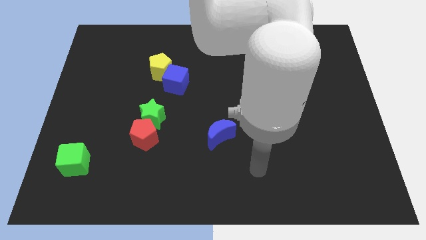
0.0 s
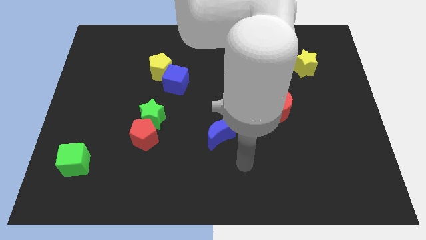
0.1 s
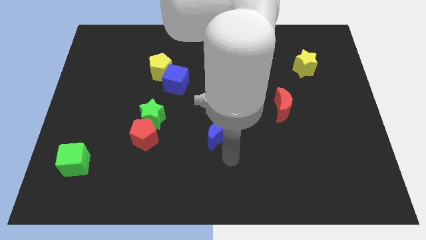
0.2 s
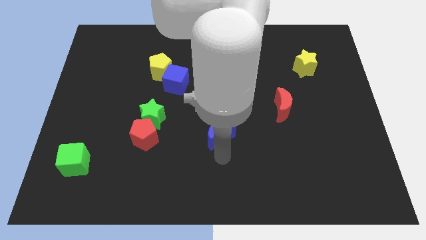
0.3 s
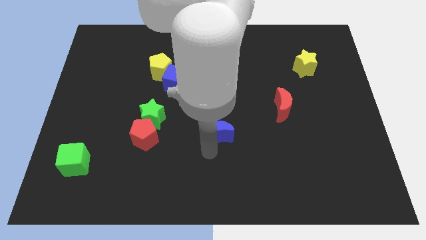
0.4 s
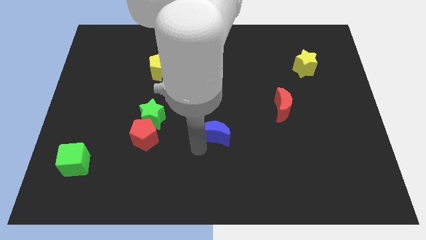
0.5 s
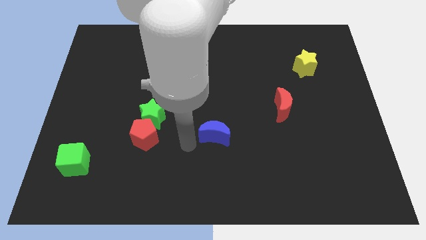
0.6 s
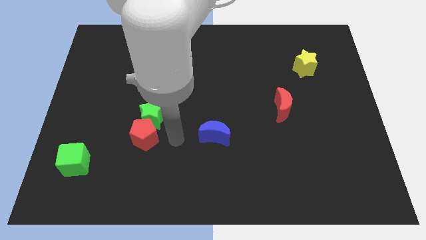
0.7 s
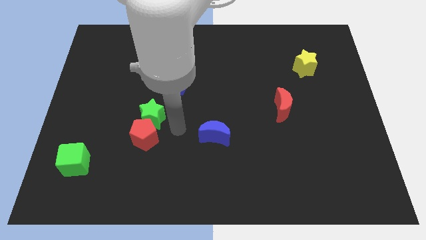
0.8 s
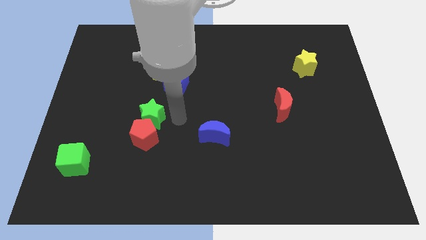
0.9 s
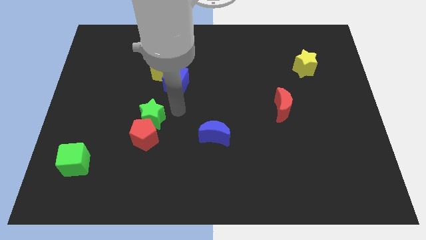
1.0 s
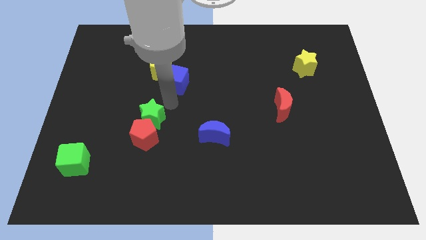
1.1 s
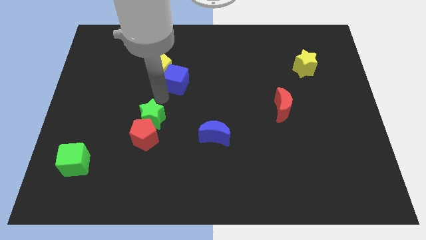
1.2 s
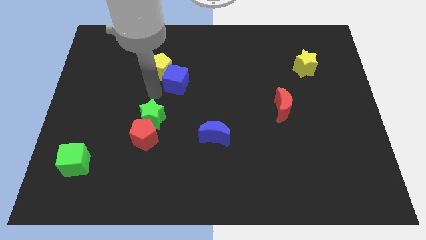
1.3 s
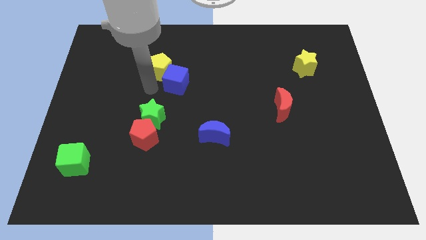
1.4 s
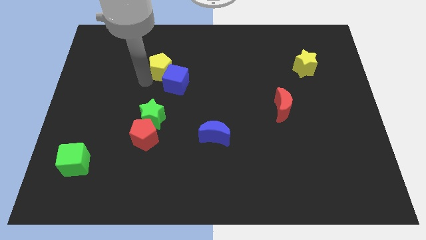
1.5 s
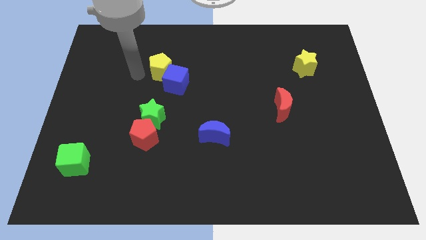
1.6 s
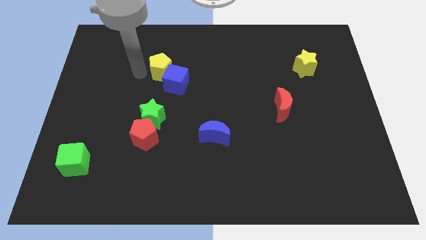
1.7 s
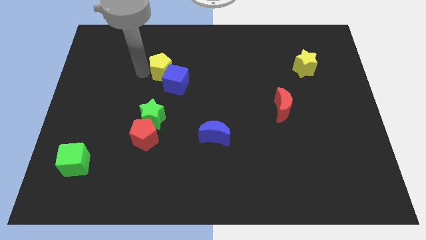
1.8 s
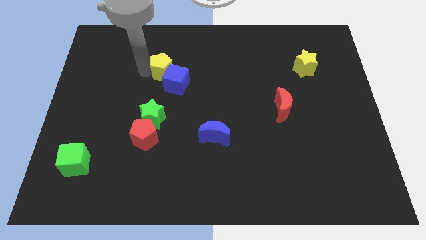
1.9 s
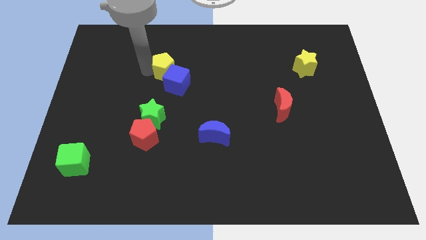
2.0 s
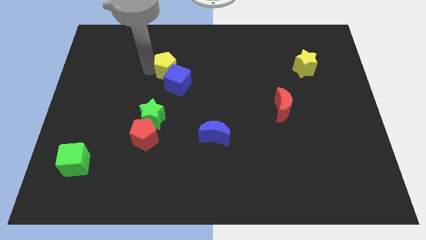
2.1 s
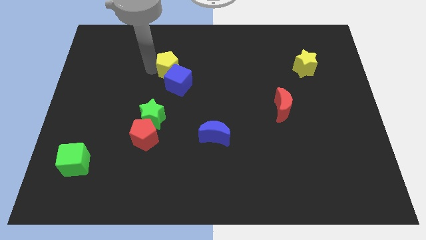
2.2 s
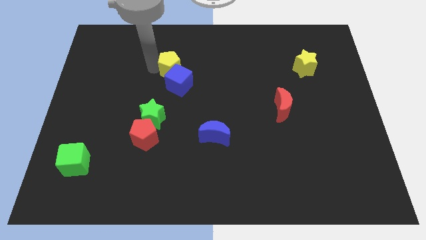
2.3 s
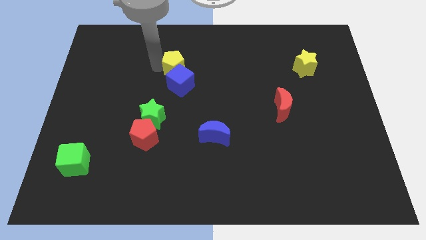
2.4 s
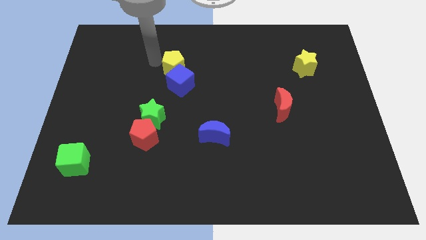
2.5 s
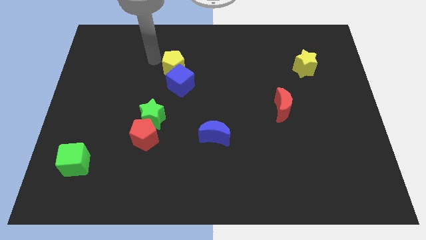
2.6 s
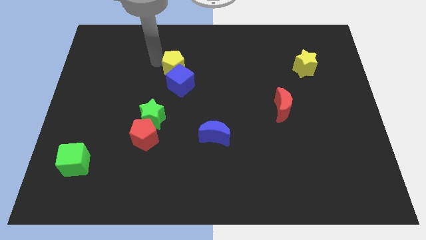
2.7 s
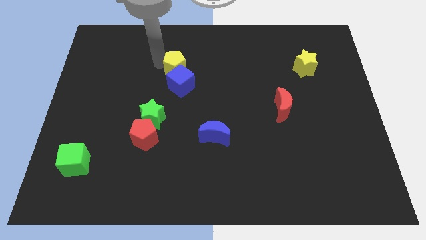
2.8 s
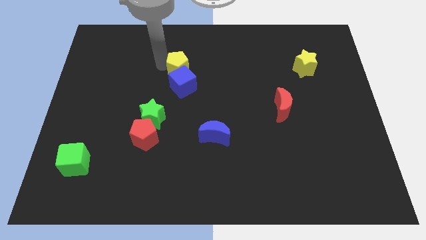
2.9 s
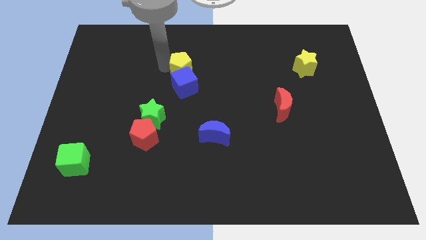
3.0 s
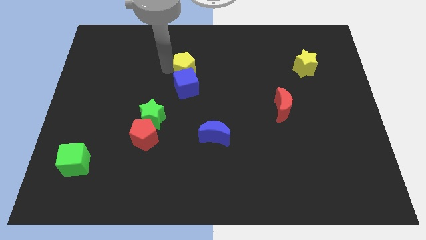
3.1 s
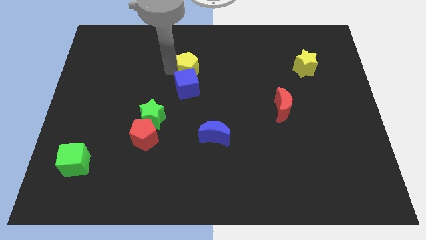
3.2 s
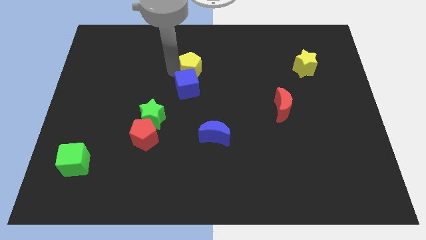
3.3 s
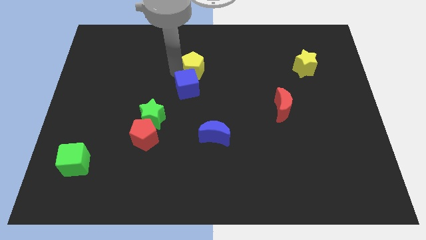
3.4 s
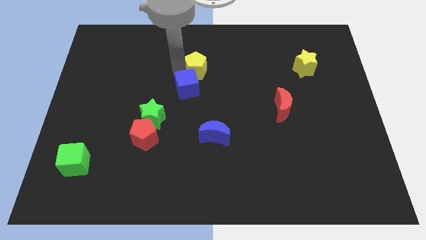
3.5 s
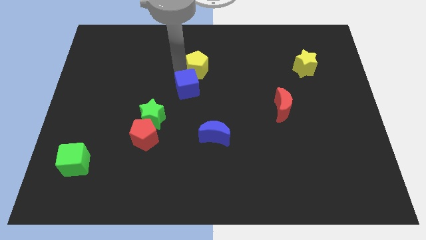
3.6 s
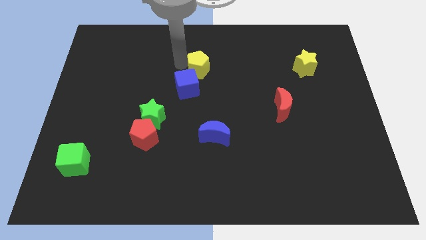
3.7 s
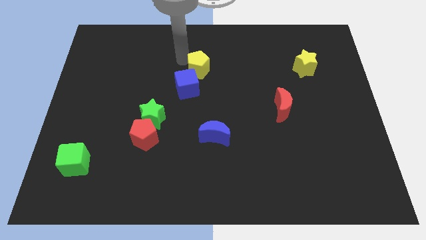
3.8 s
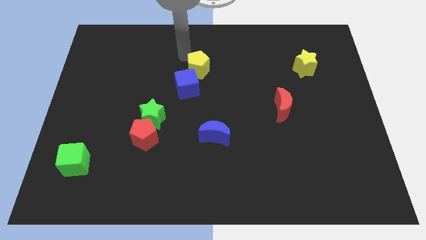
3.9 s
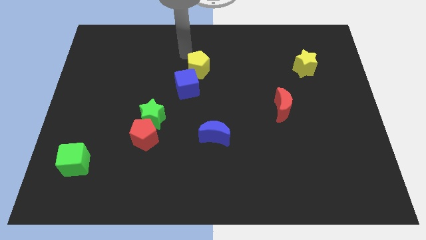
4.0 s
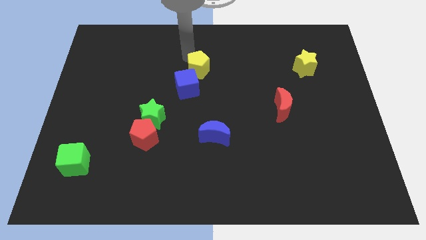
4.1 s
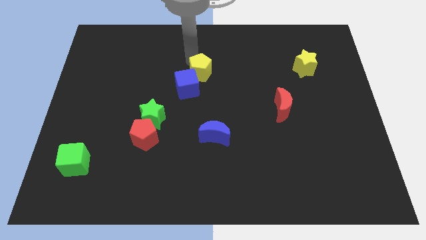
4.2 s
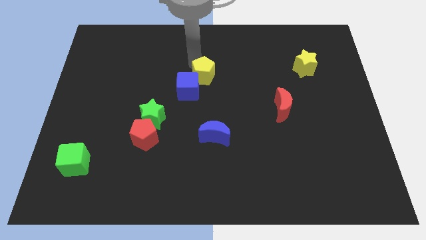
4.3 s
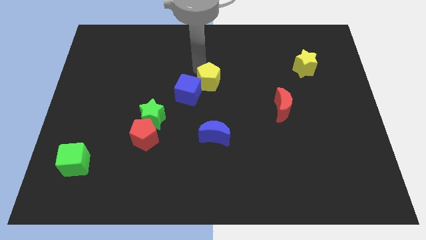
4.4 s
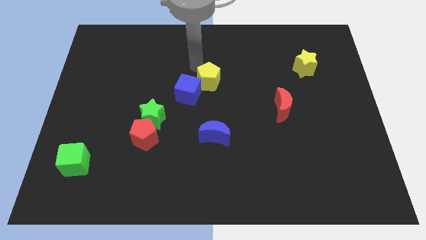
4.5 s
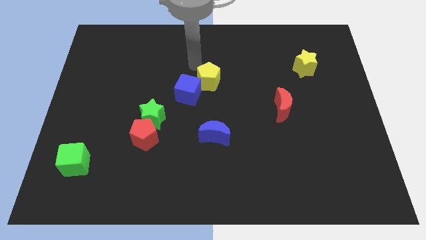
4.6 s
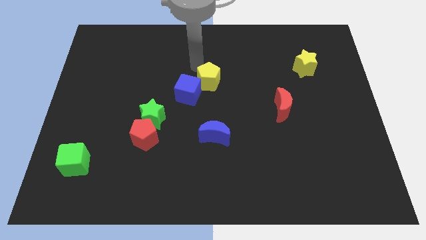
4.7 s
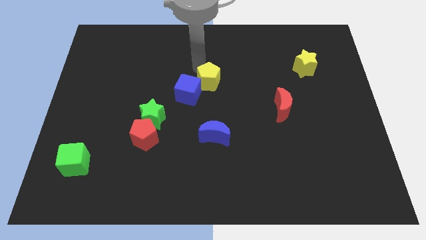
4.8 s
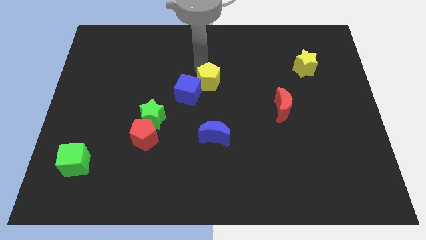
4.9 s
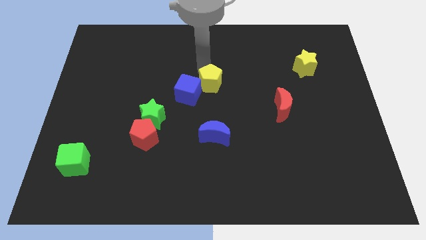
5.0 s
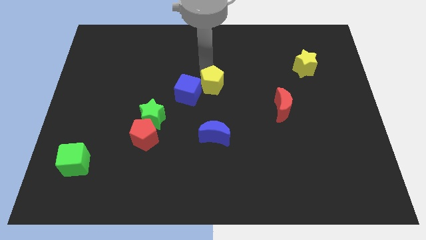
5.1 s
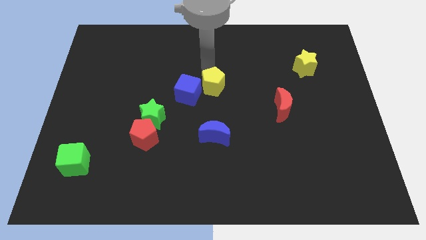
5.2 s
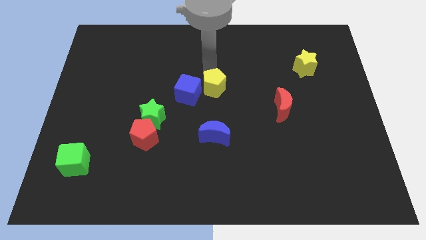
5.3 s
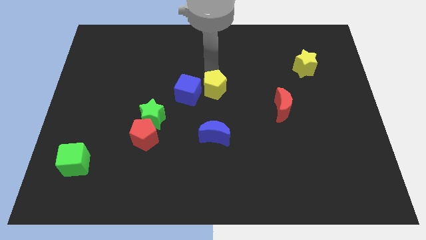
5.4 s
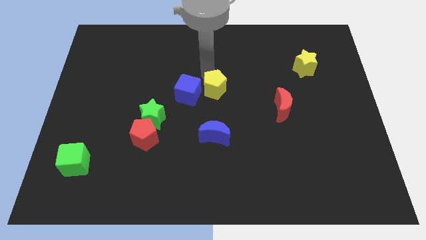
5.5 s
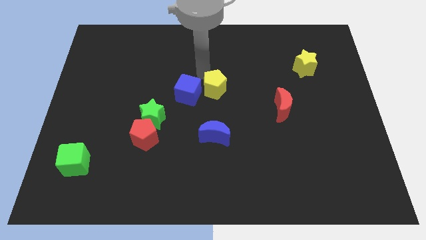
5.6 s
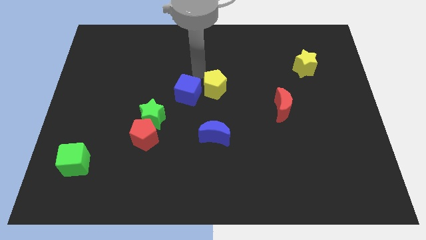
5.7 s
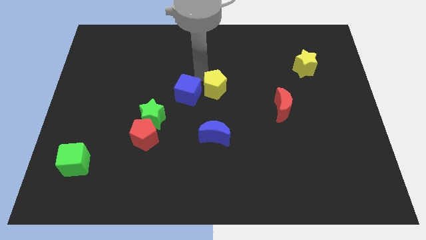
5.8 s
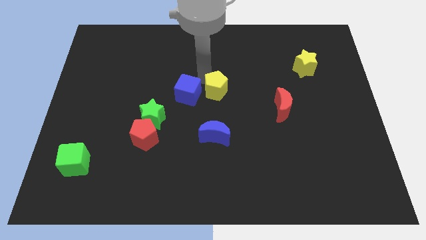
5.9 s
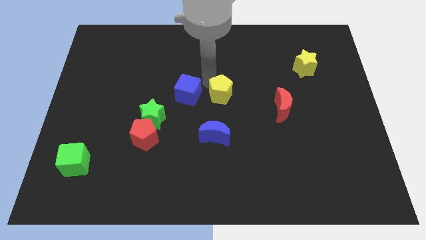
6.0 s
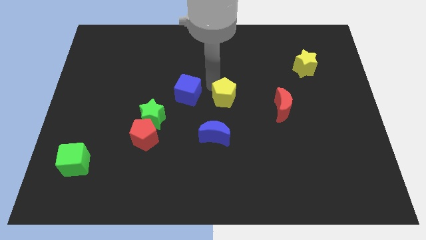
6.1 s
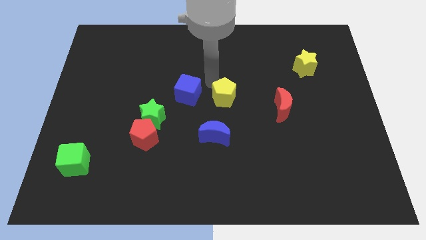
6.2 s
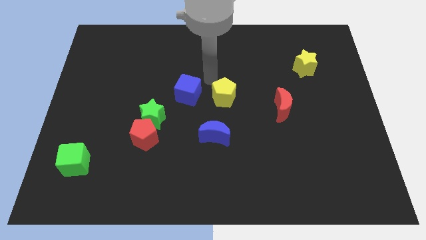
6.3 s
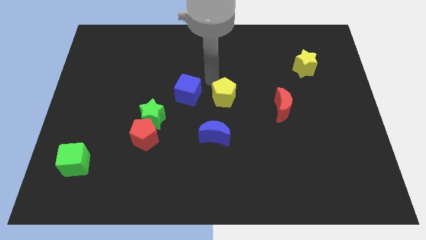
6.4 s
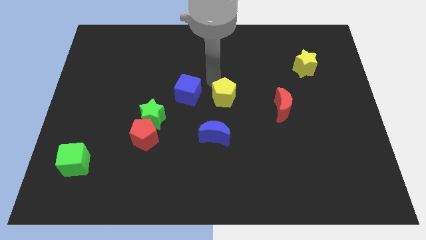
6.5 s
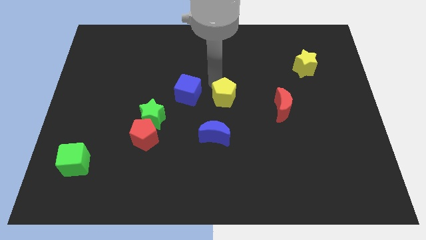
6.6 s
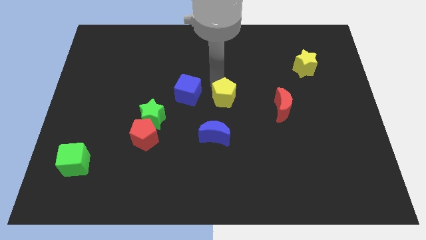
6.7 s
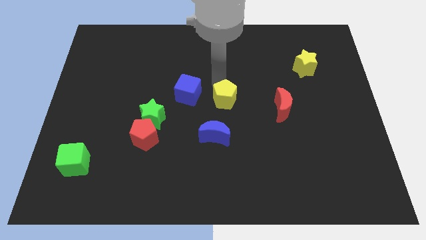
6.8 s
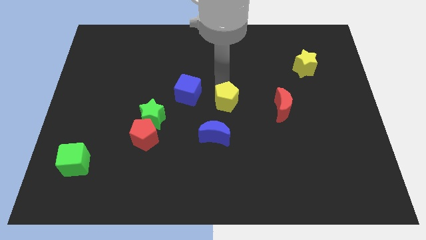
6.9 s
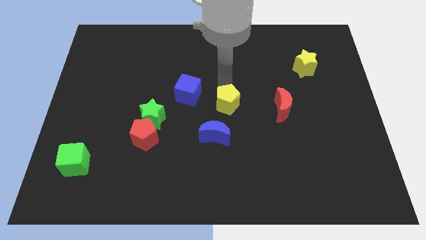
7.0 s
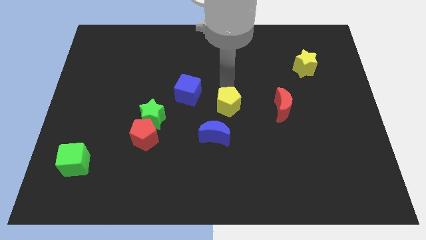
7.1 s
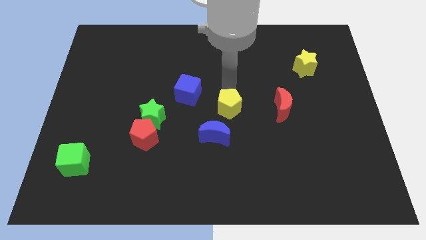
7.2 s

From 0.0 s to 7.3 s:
slide the yellow pentagon diagonally down and to the right

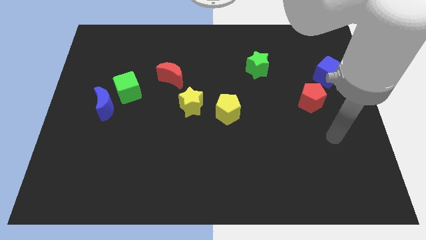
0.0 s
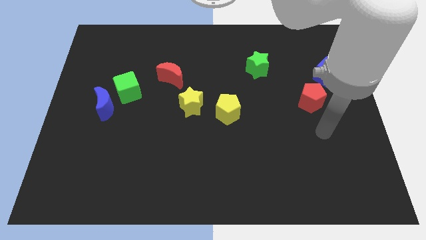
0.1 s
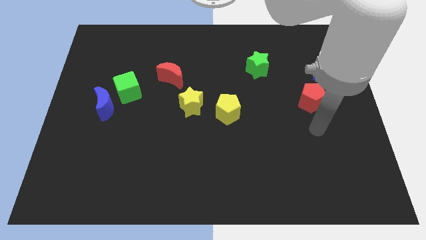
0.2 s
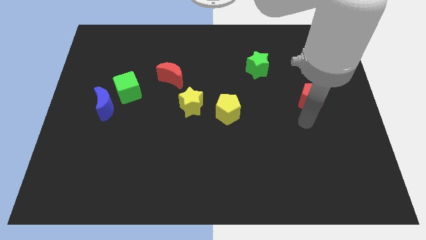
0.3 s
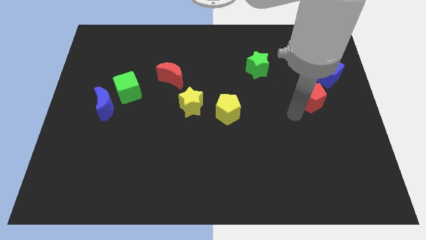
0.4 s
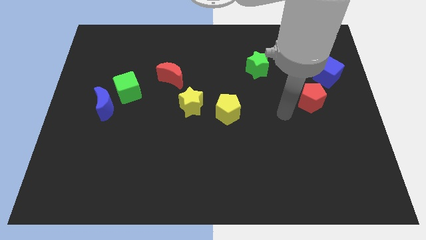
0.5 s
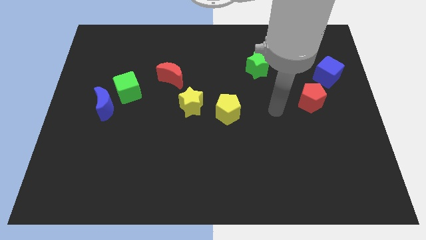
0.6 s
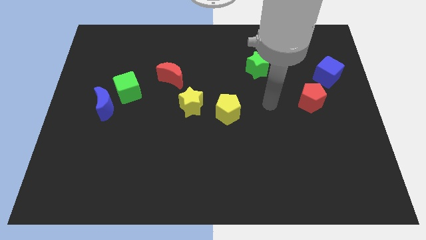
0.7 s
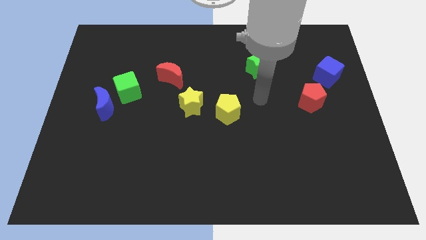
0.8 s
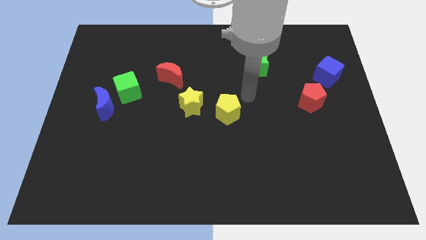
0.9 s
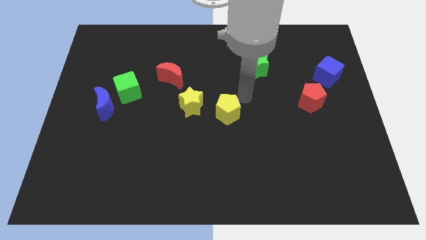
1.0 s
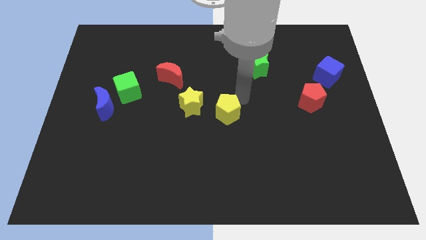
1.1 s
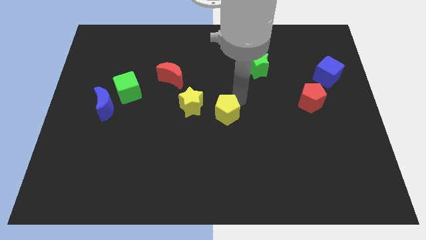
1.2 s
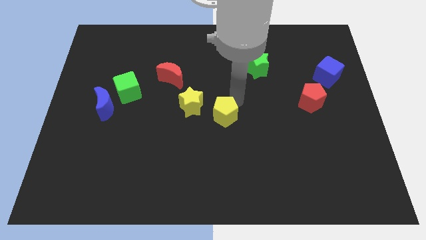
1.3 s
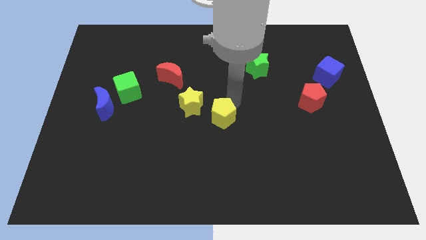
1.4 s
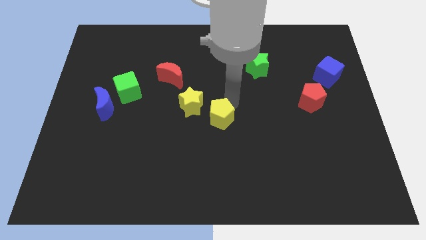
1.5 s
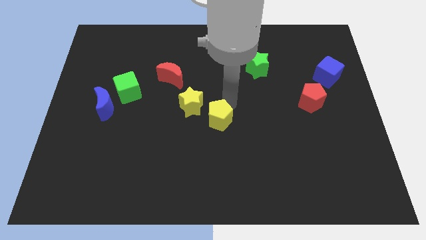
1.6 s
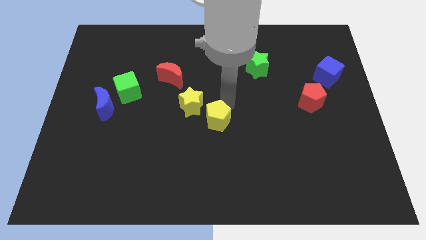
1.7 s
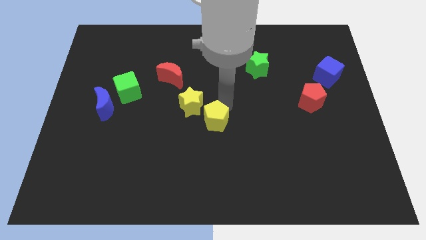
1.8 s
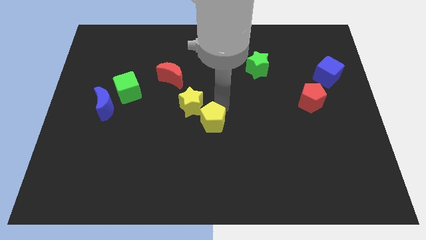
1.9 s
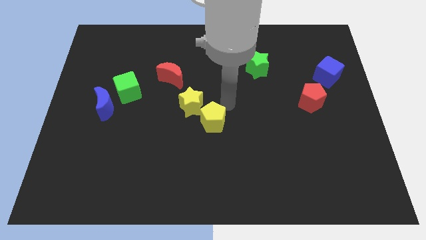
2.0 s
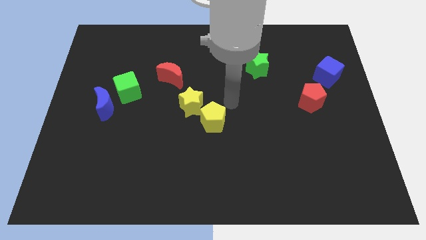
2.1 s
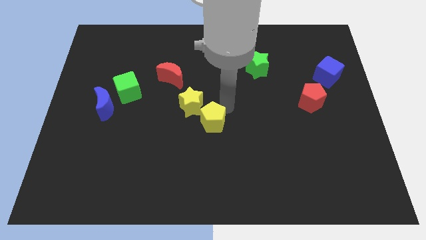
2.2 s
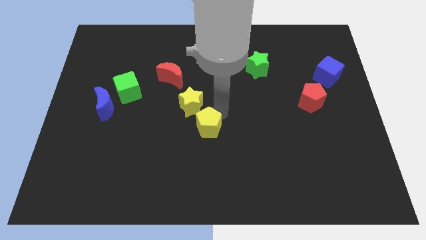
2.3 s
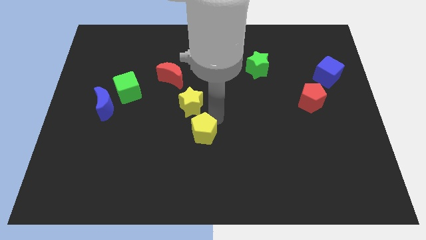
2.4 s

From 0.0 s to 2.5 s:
move the yellow pentagon diagonally downwards and left a bit
